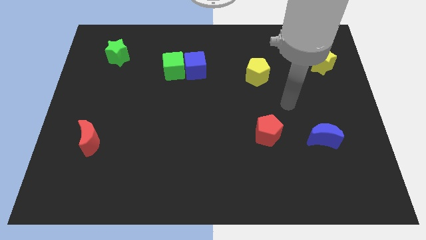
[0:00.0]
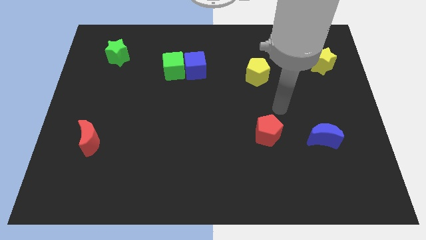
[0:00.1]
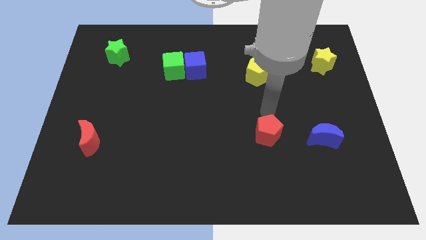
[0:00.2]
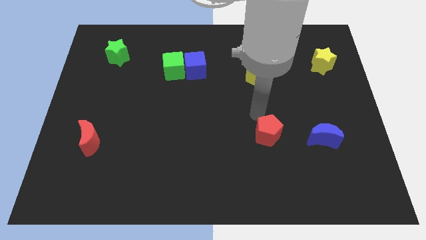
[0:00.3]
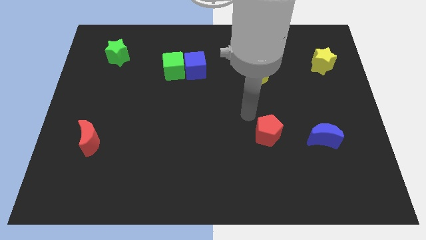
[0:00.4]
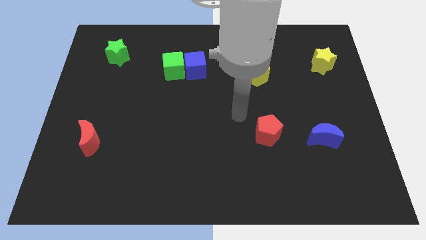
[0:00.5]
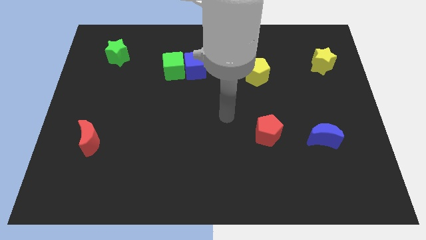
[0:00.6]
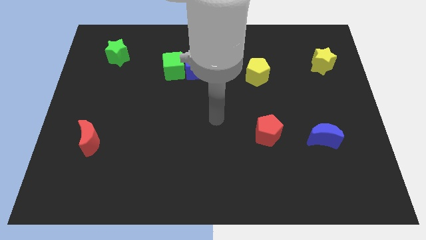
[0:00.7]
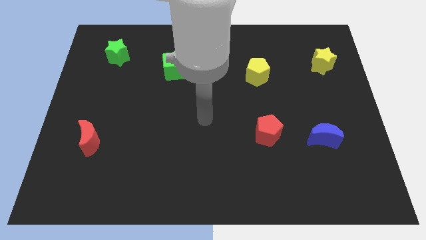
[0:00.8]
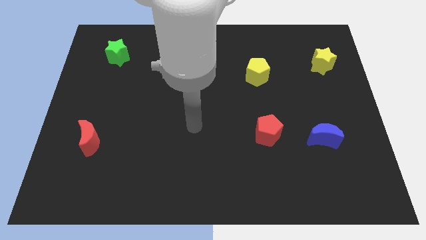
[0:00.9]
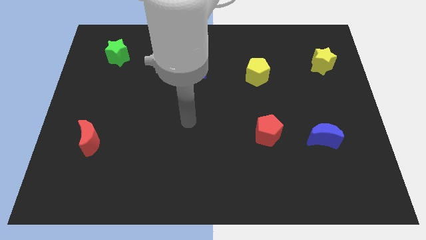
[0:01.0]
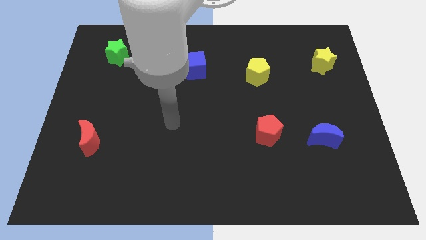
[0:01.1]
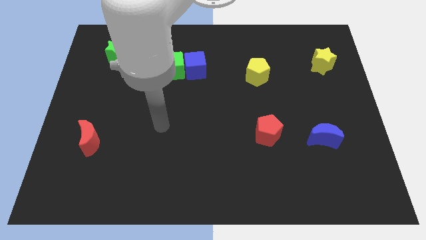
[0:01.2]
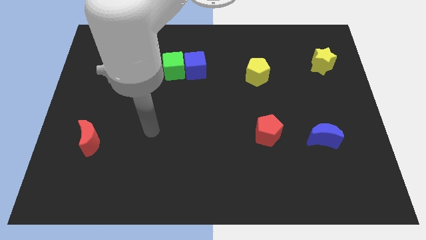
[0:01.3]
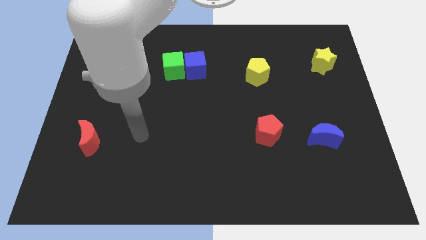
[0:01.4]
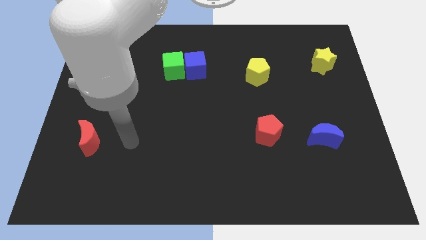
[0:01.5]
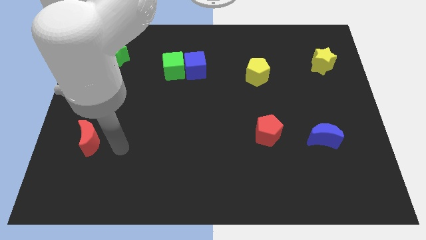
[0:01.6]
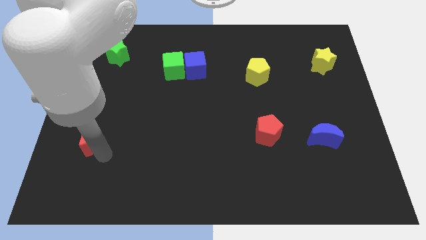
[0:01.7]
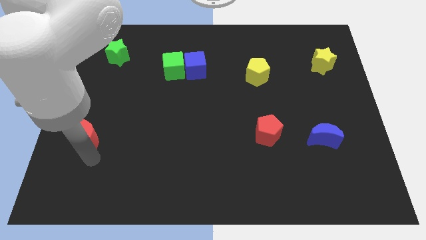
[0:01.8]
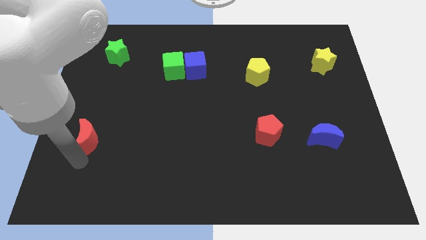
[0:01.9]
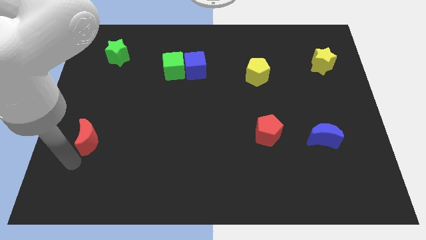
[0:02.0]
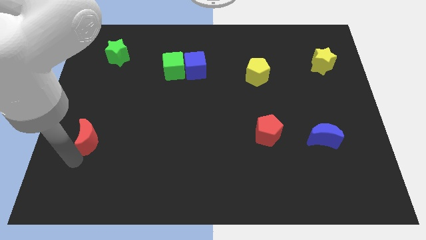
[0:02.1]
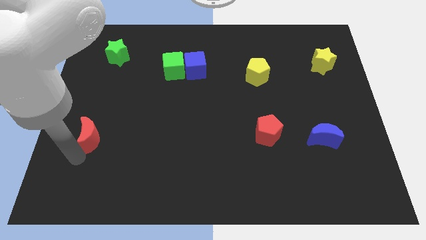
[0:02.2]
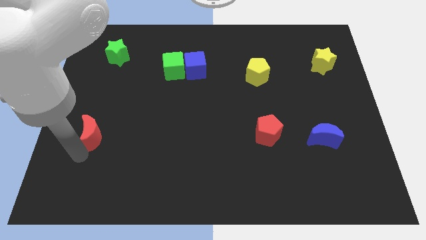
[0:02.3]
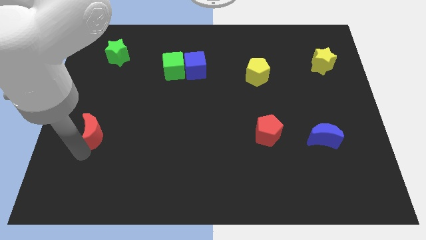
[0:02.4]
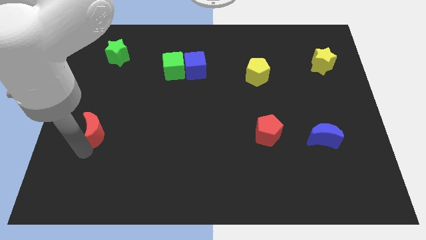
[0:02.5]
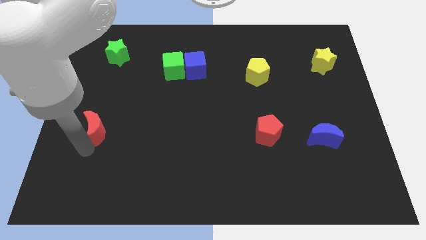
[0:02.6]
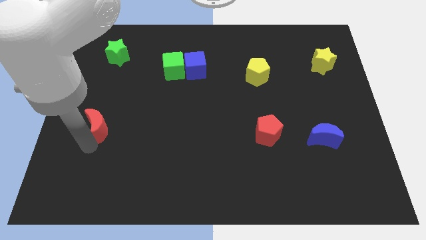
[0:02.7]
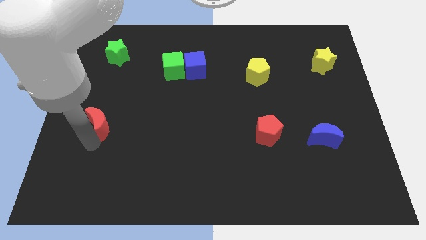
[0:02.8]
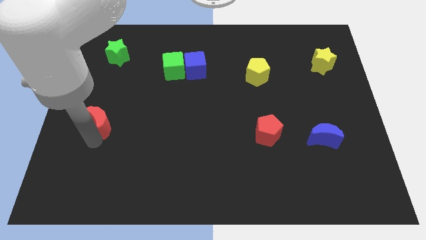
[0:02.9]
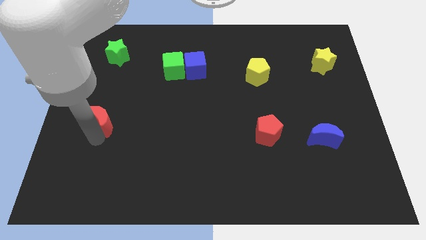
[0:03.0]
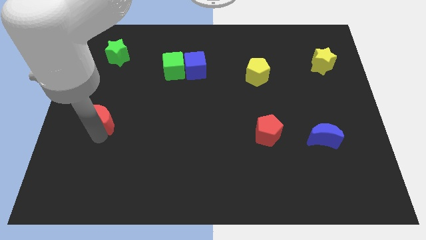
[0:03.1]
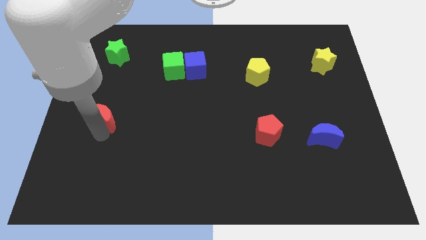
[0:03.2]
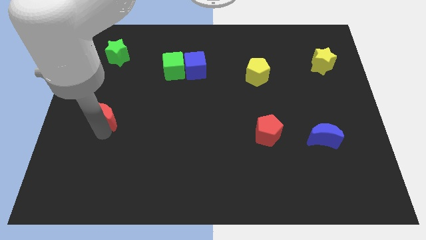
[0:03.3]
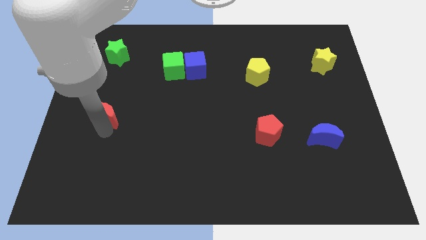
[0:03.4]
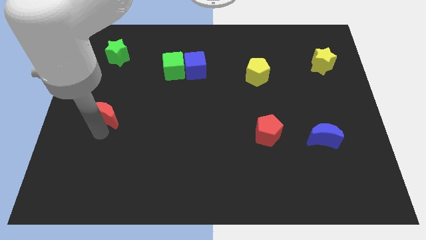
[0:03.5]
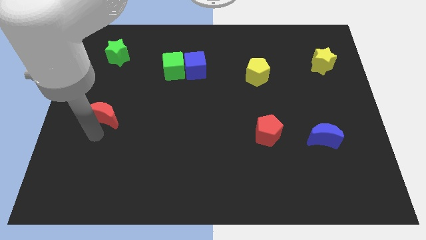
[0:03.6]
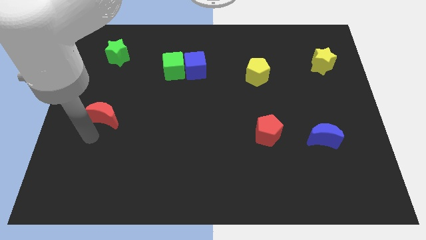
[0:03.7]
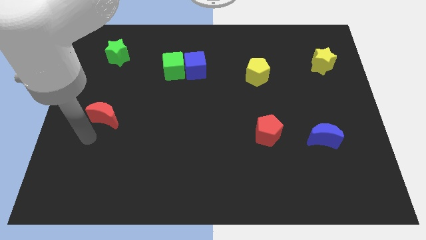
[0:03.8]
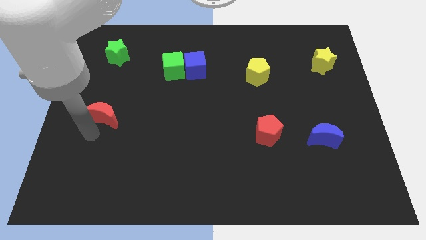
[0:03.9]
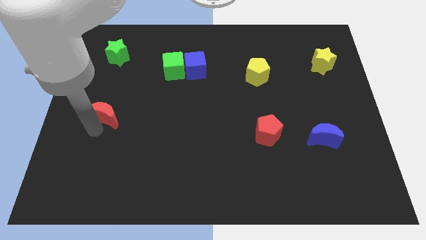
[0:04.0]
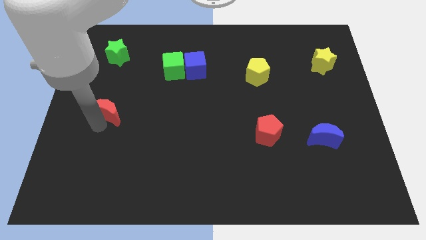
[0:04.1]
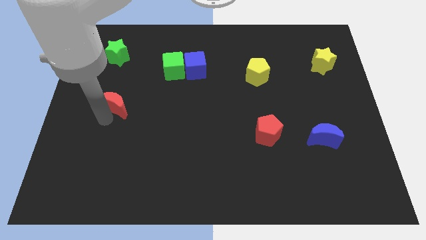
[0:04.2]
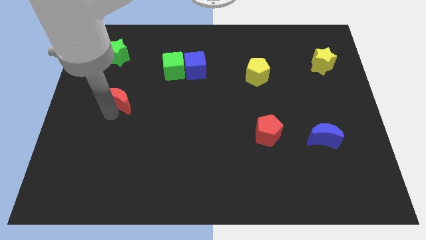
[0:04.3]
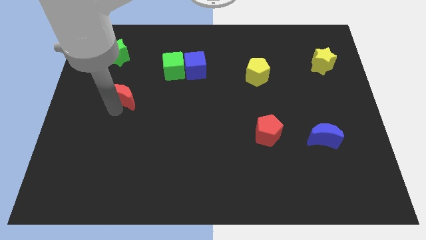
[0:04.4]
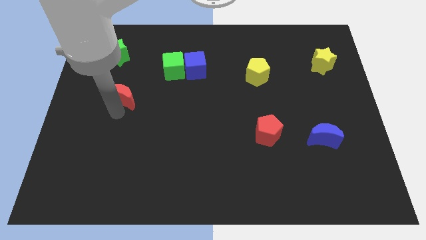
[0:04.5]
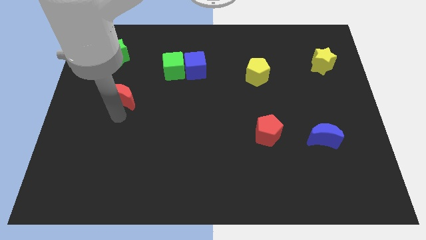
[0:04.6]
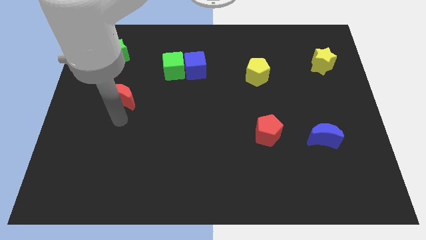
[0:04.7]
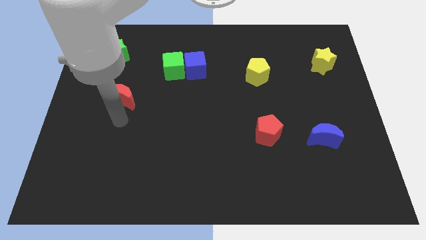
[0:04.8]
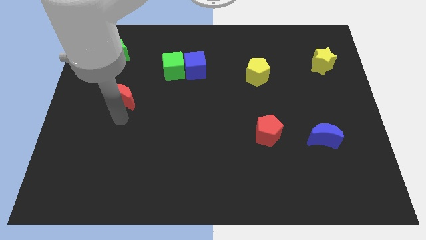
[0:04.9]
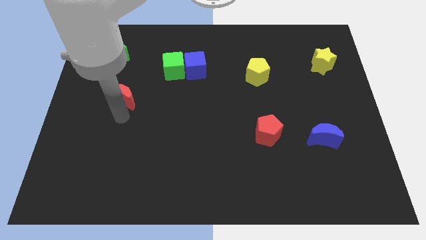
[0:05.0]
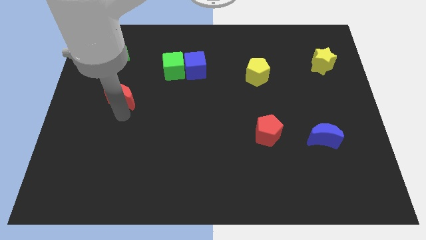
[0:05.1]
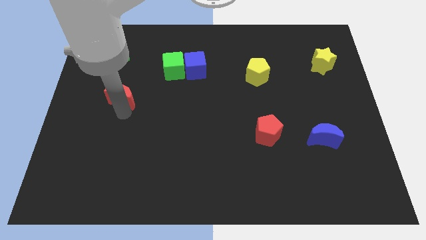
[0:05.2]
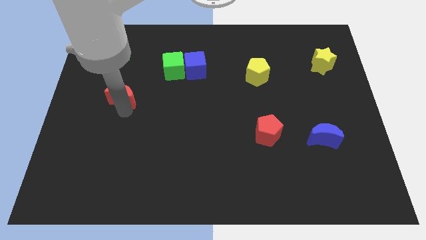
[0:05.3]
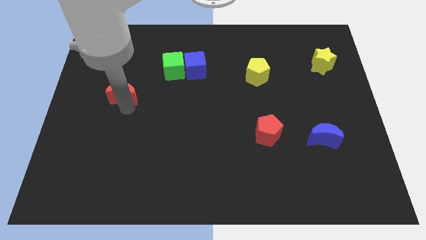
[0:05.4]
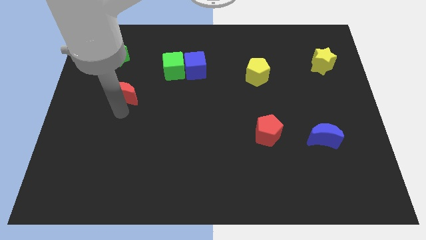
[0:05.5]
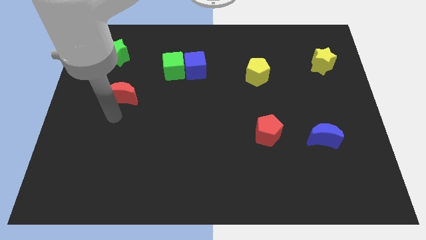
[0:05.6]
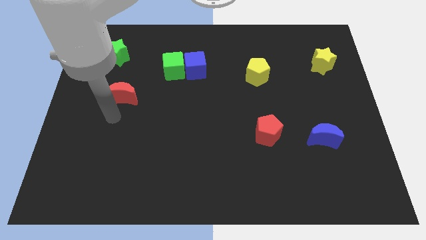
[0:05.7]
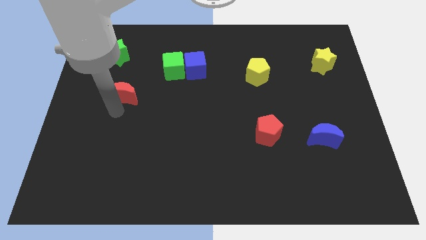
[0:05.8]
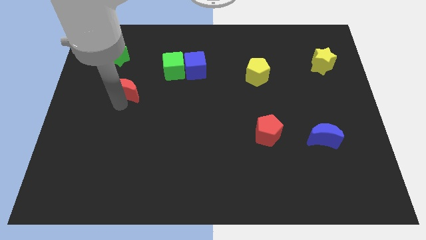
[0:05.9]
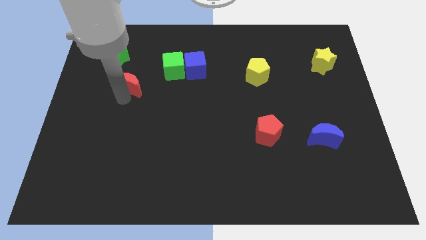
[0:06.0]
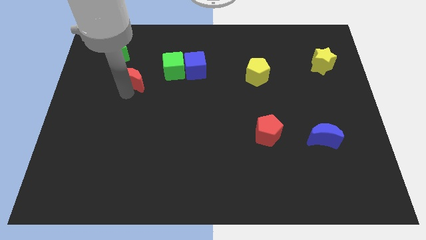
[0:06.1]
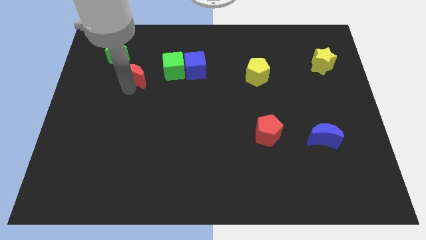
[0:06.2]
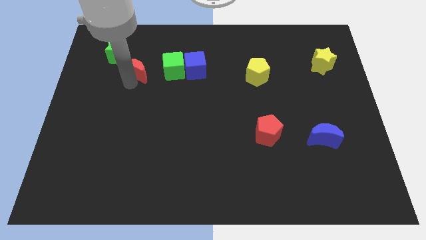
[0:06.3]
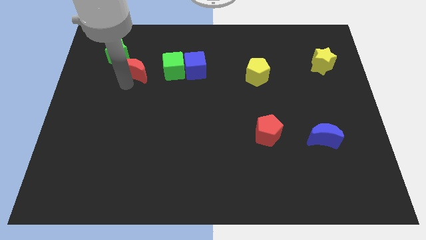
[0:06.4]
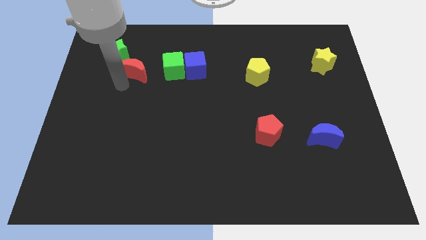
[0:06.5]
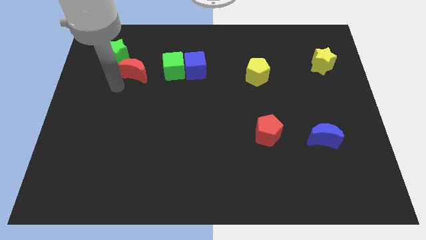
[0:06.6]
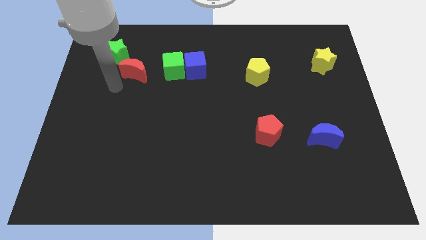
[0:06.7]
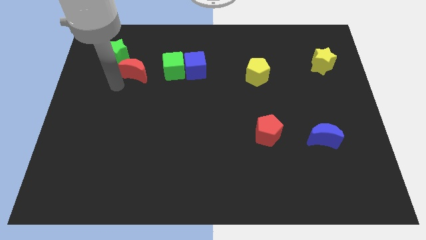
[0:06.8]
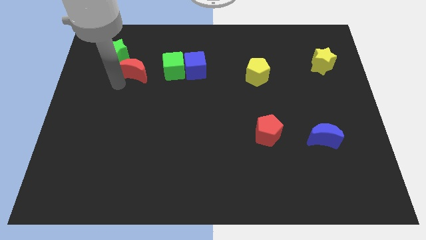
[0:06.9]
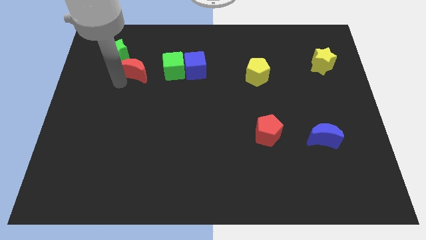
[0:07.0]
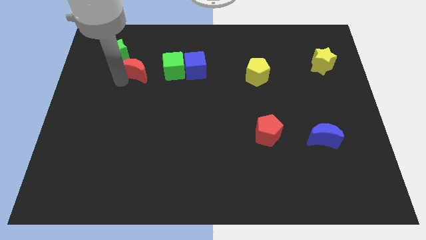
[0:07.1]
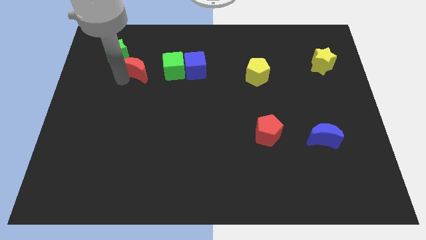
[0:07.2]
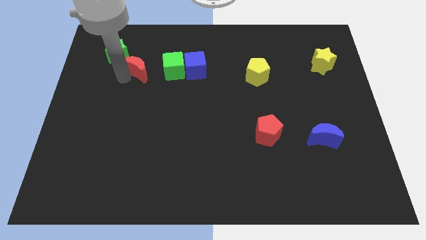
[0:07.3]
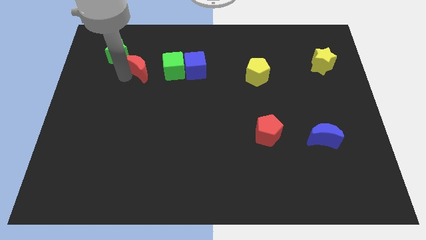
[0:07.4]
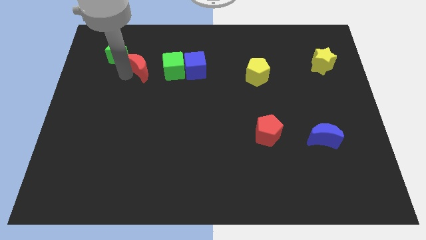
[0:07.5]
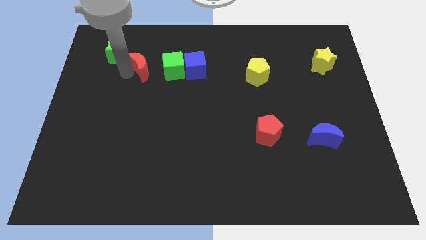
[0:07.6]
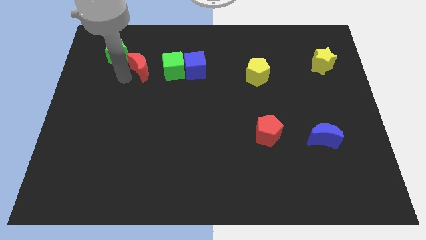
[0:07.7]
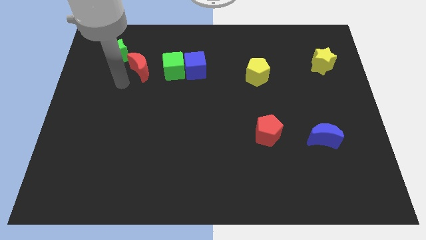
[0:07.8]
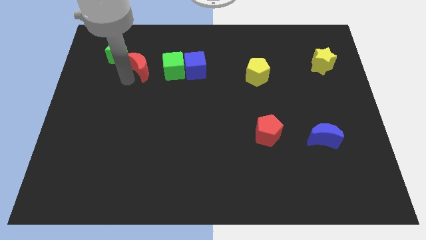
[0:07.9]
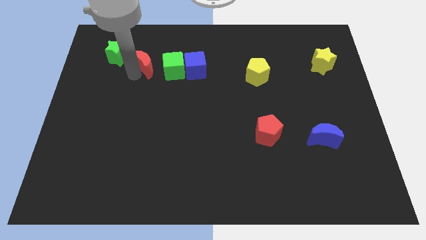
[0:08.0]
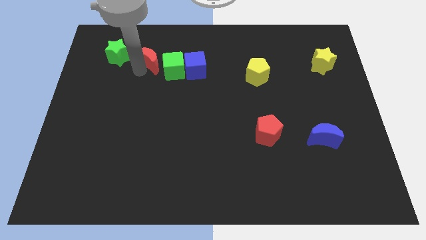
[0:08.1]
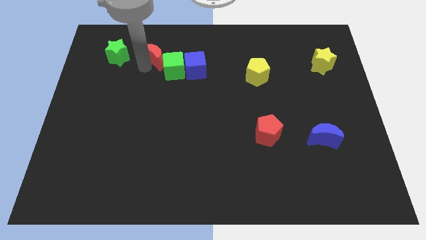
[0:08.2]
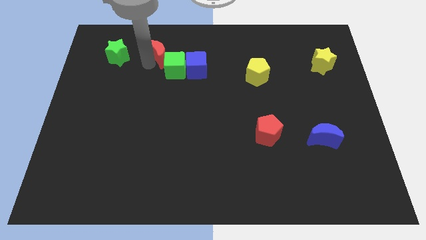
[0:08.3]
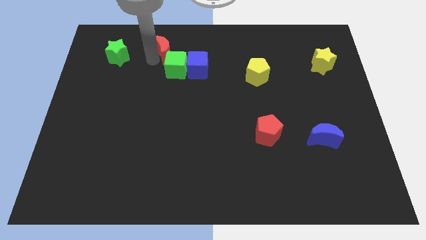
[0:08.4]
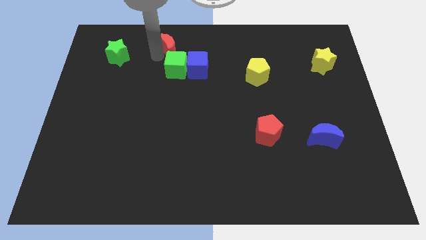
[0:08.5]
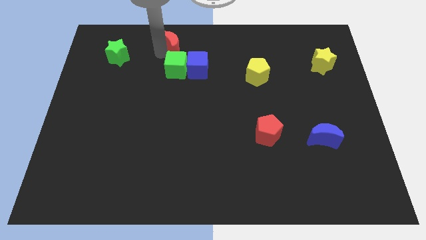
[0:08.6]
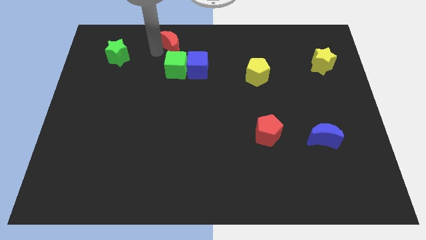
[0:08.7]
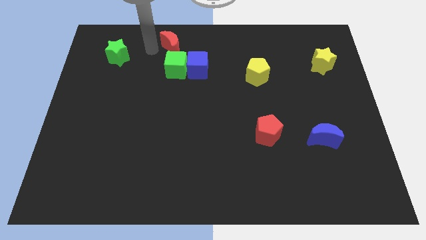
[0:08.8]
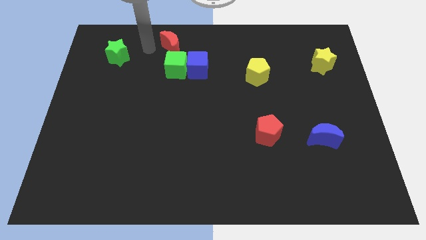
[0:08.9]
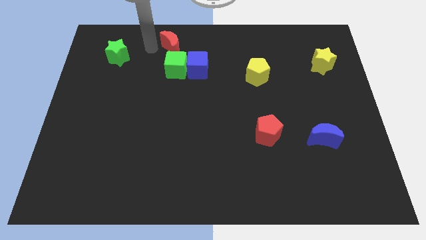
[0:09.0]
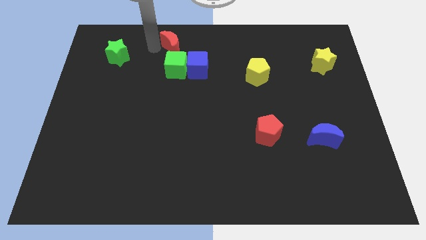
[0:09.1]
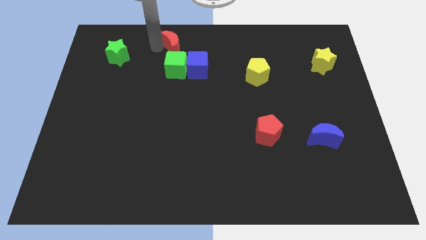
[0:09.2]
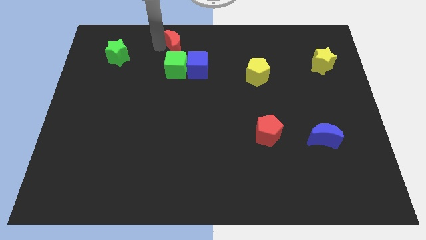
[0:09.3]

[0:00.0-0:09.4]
slide the red moon to the towards your base
